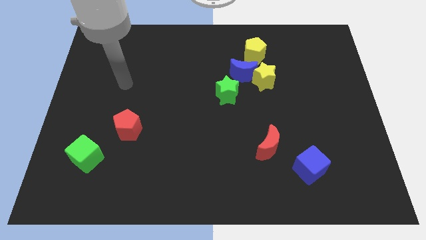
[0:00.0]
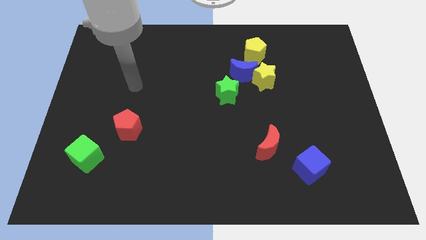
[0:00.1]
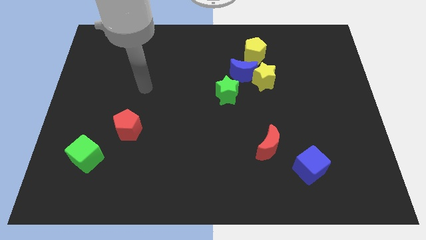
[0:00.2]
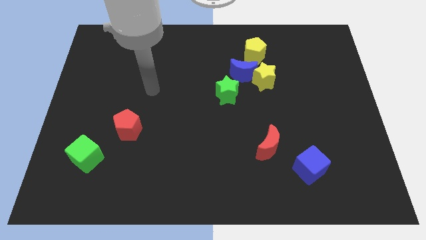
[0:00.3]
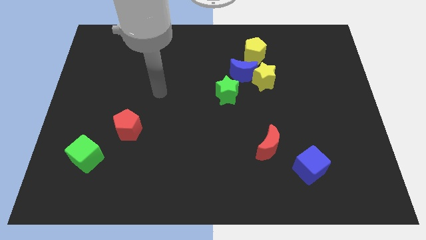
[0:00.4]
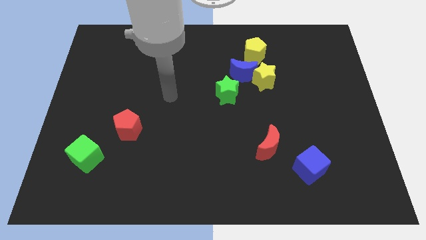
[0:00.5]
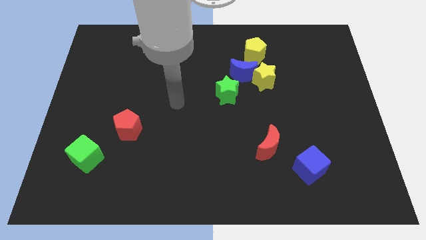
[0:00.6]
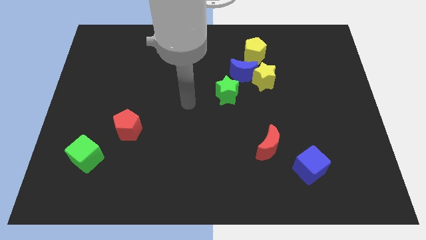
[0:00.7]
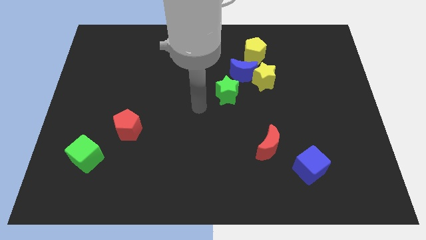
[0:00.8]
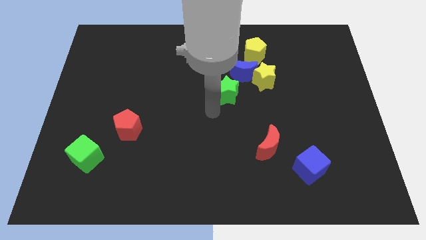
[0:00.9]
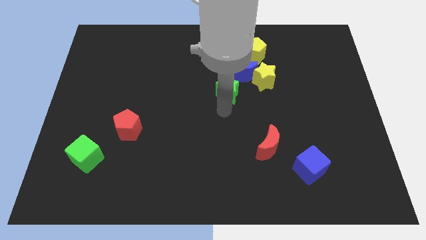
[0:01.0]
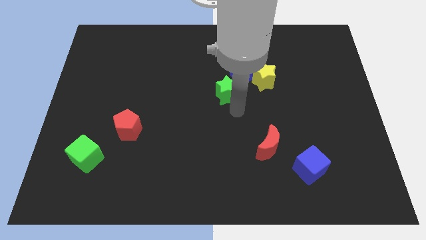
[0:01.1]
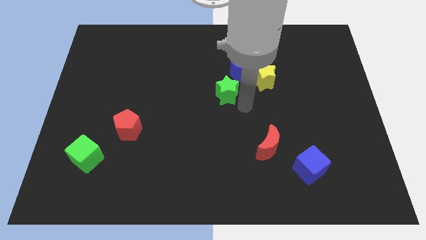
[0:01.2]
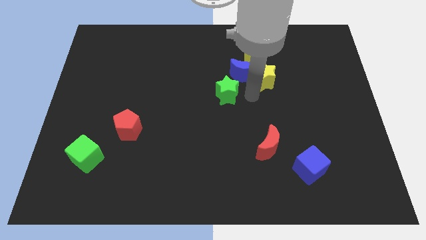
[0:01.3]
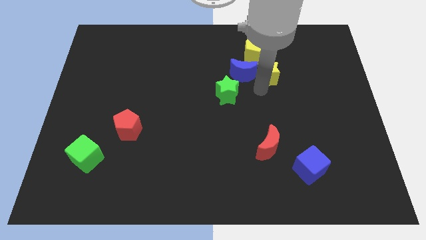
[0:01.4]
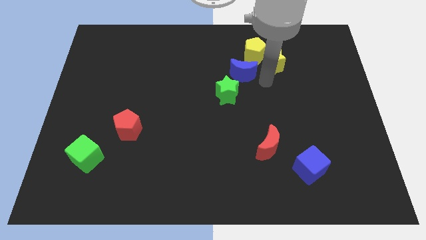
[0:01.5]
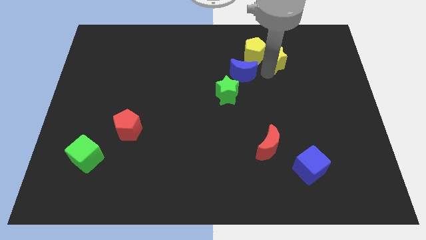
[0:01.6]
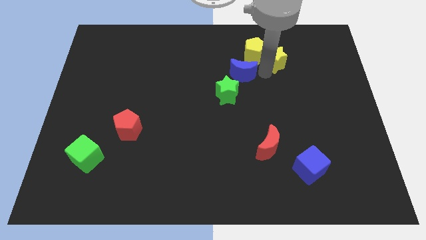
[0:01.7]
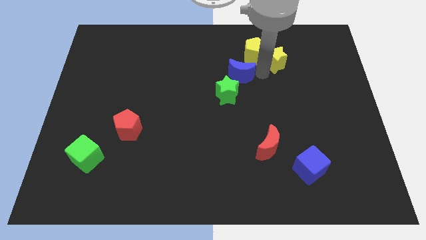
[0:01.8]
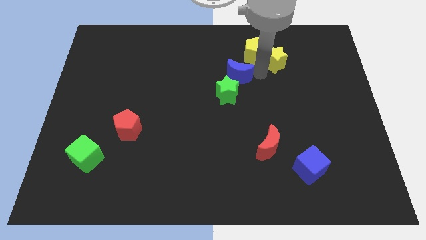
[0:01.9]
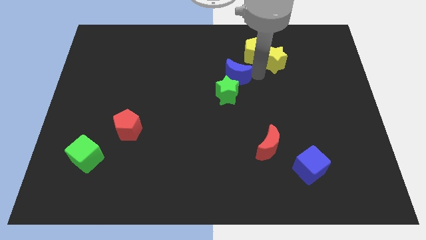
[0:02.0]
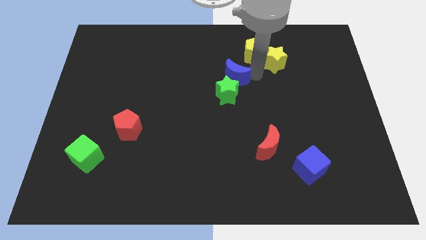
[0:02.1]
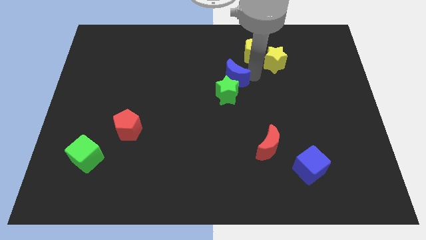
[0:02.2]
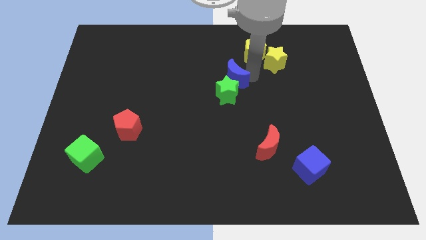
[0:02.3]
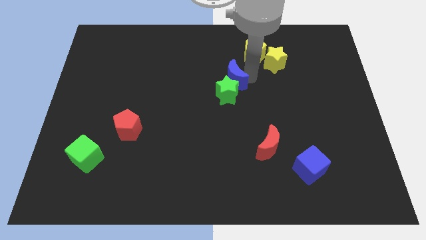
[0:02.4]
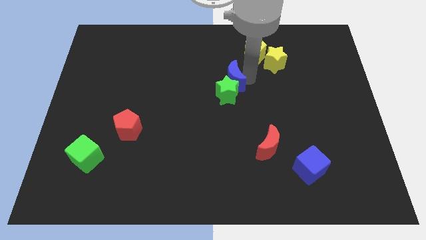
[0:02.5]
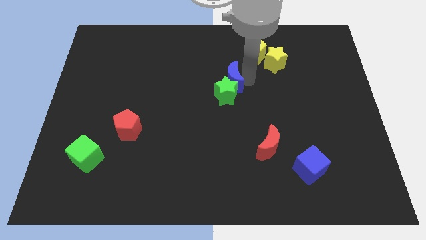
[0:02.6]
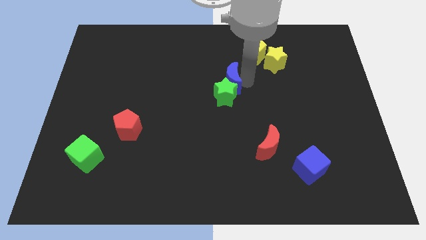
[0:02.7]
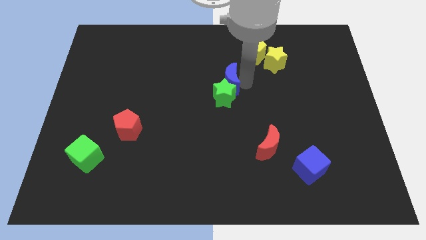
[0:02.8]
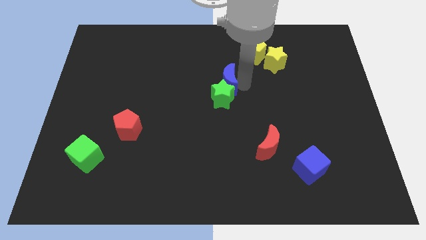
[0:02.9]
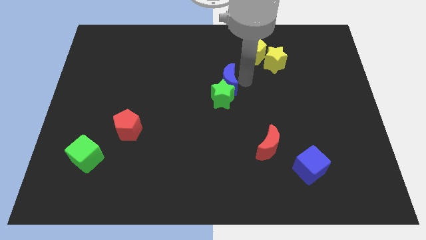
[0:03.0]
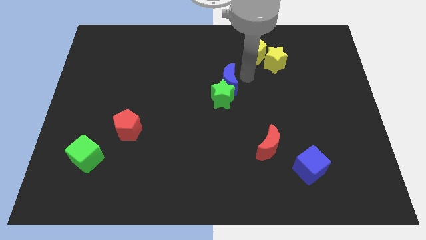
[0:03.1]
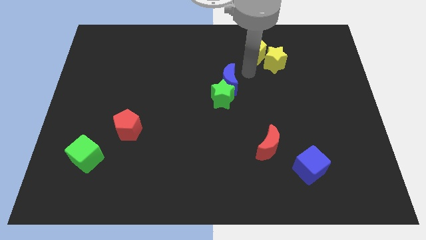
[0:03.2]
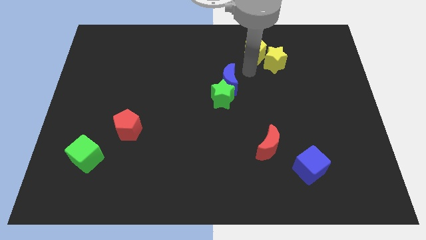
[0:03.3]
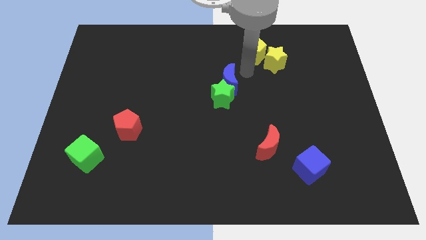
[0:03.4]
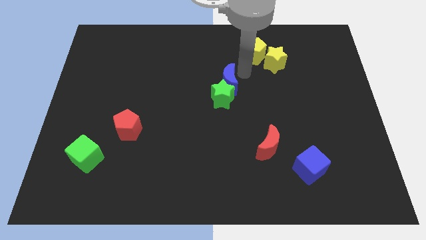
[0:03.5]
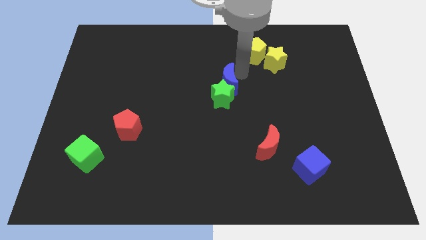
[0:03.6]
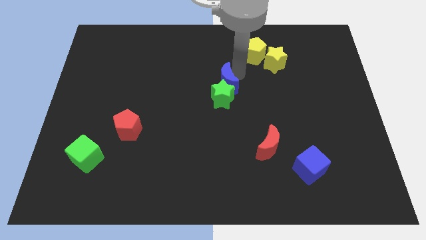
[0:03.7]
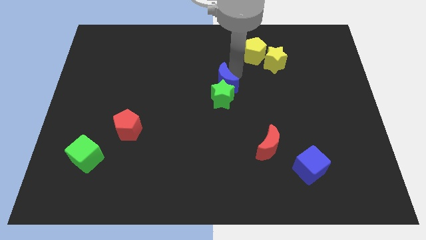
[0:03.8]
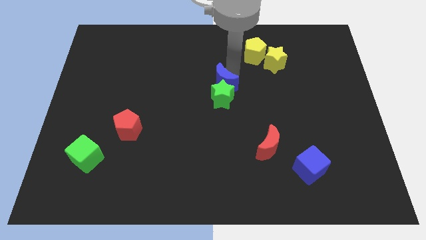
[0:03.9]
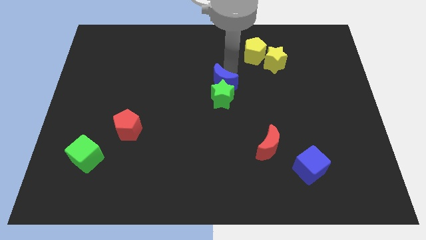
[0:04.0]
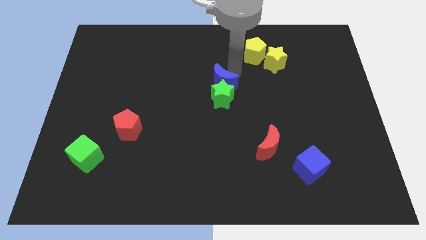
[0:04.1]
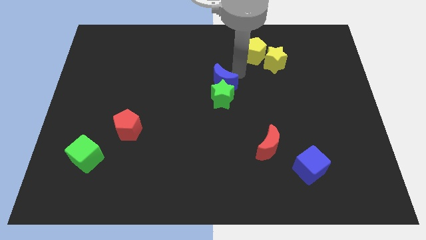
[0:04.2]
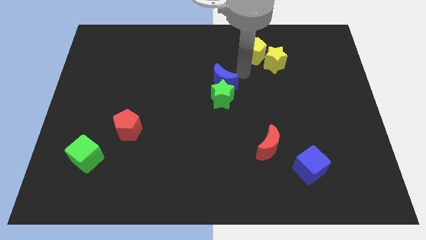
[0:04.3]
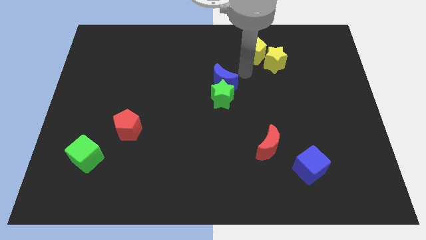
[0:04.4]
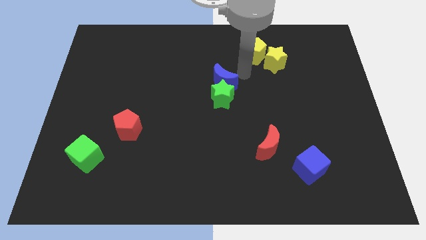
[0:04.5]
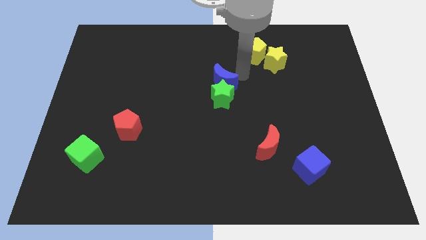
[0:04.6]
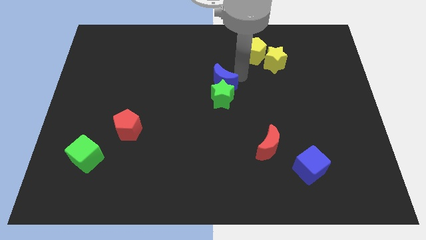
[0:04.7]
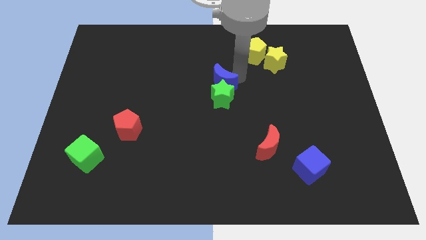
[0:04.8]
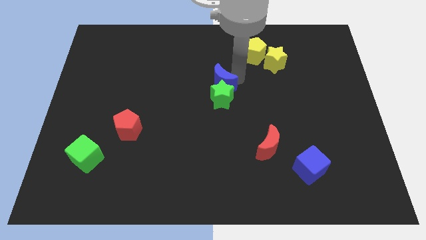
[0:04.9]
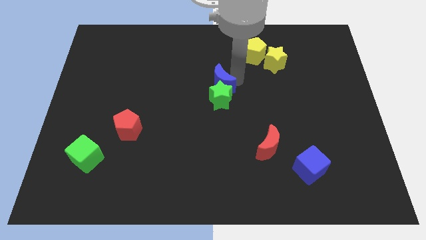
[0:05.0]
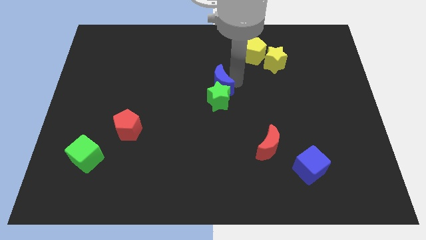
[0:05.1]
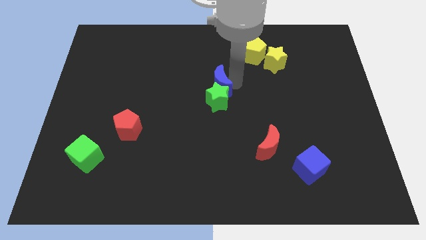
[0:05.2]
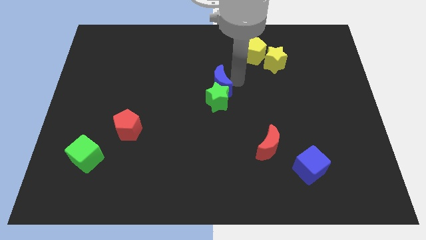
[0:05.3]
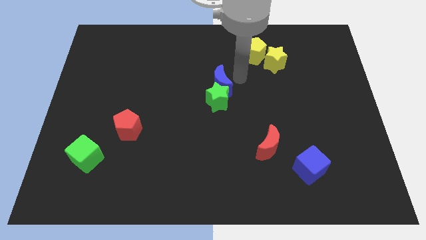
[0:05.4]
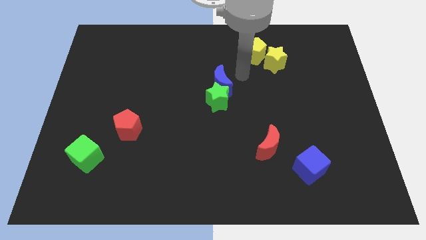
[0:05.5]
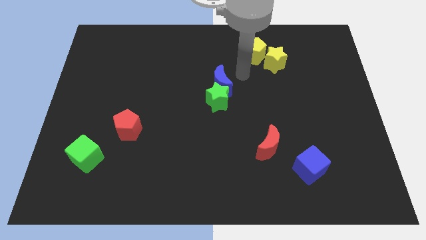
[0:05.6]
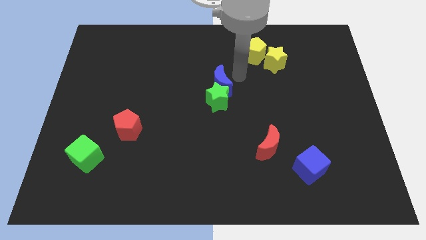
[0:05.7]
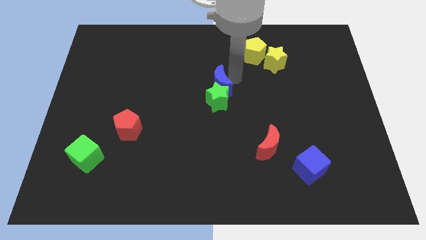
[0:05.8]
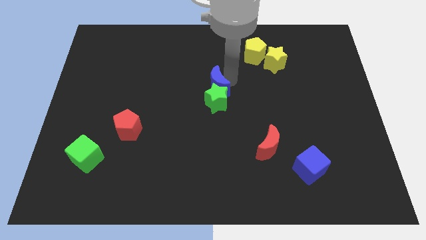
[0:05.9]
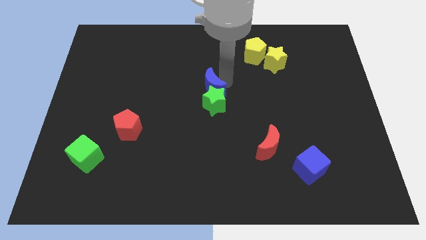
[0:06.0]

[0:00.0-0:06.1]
separate the blue moon from the yellow star, green star, and yellow pentagon

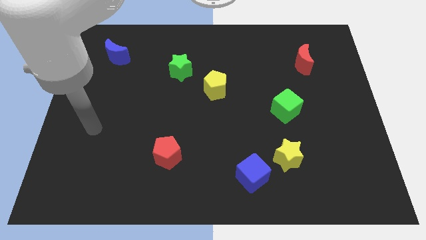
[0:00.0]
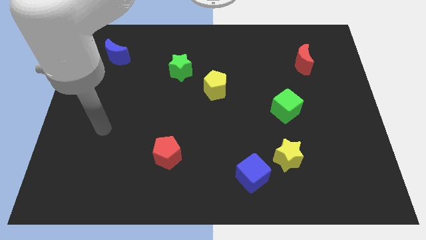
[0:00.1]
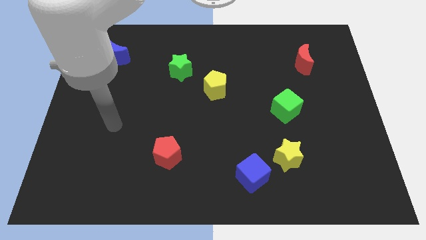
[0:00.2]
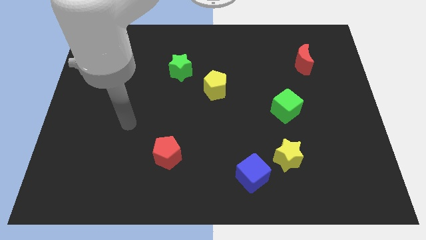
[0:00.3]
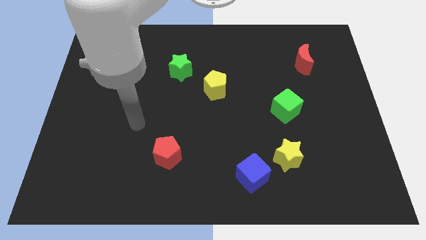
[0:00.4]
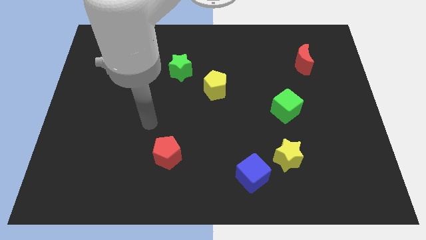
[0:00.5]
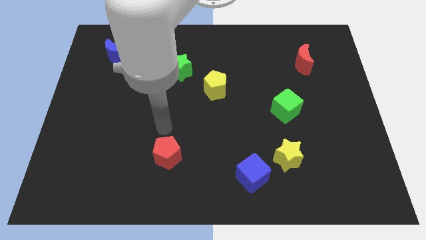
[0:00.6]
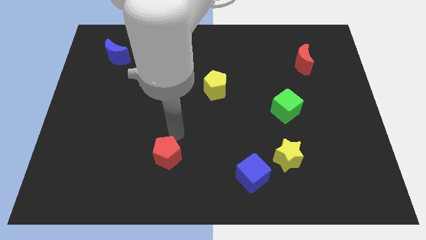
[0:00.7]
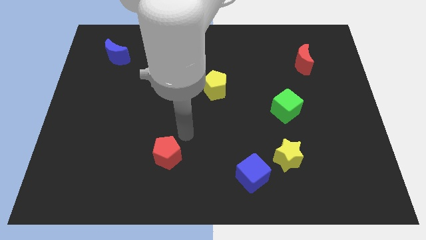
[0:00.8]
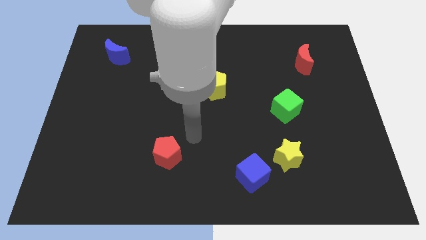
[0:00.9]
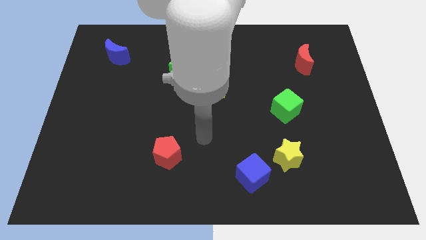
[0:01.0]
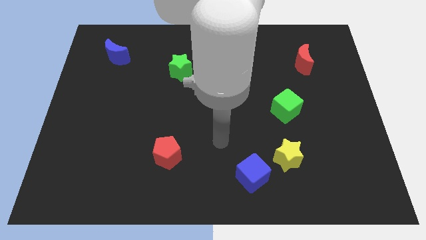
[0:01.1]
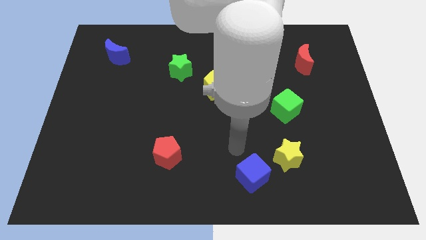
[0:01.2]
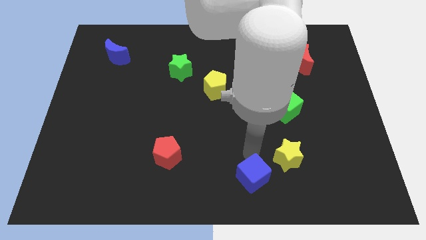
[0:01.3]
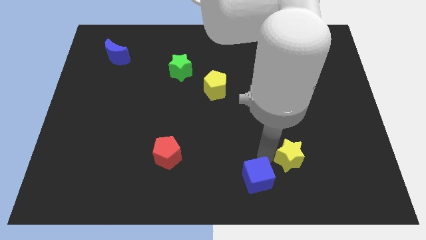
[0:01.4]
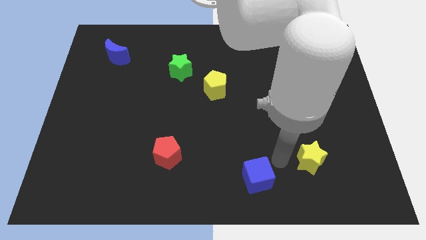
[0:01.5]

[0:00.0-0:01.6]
move the blue cube away from the yellow star

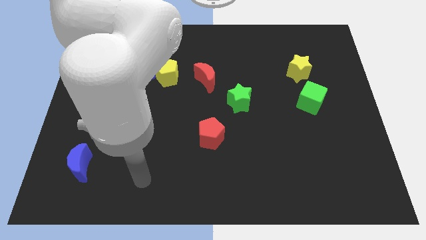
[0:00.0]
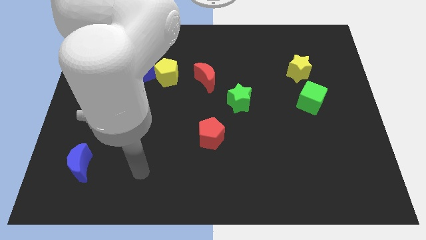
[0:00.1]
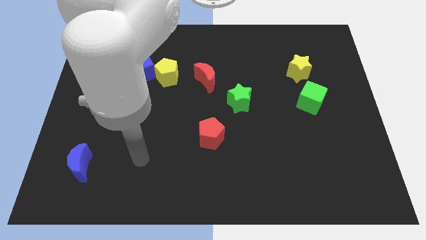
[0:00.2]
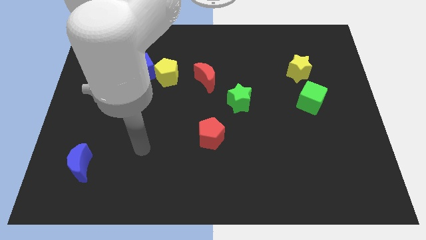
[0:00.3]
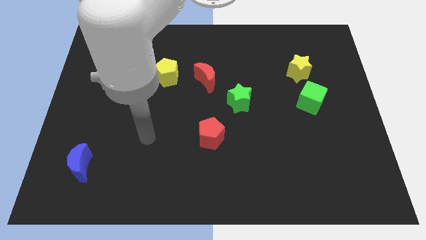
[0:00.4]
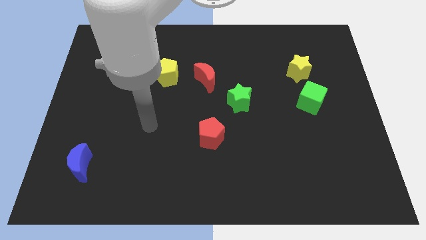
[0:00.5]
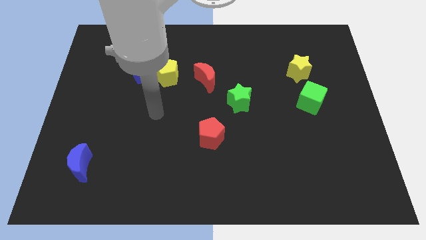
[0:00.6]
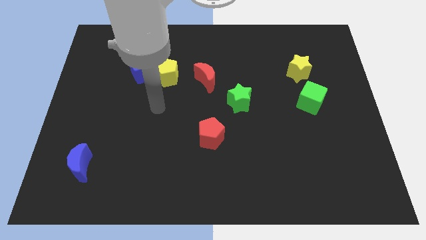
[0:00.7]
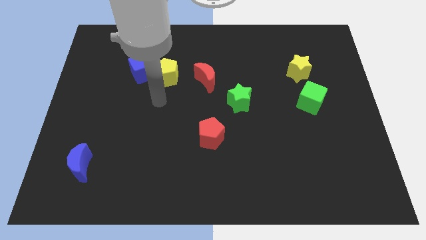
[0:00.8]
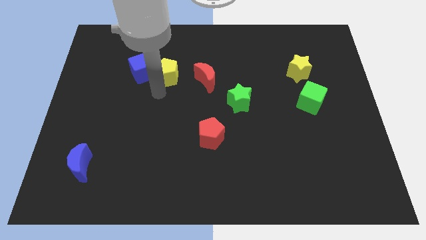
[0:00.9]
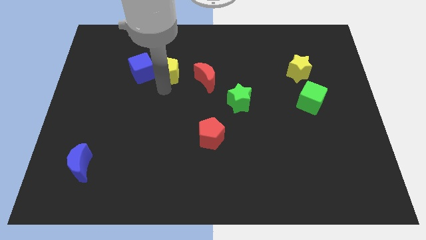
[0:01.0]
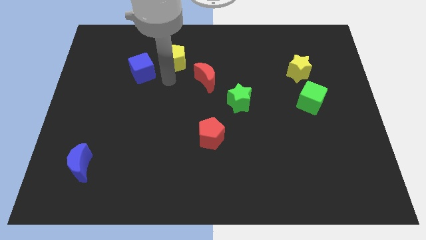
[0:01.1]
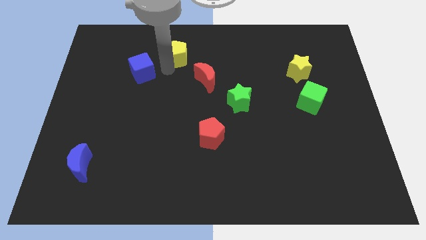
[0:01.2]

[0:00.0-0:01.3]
move the blue cube away from the yellow pentagon

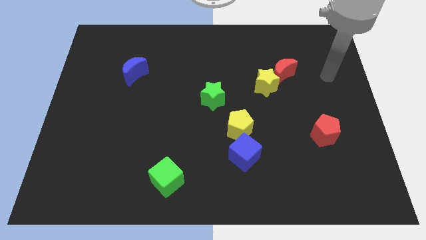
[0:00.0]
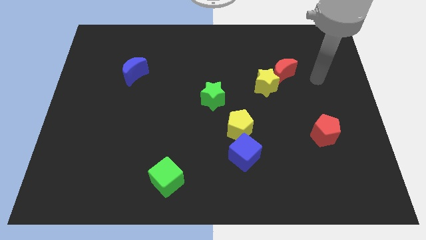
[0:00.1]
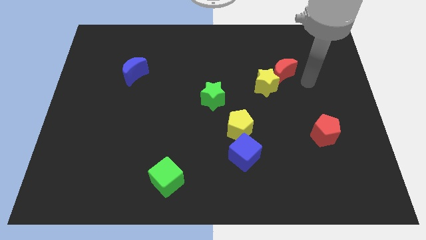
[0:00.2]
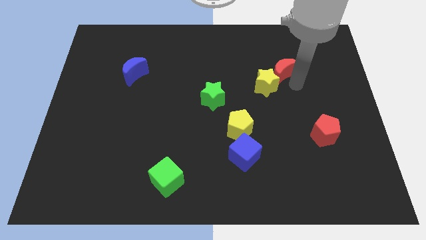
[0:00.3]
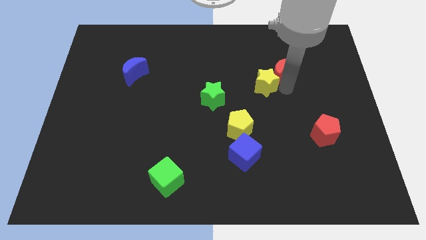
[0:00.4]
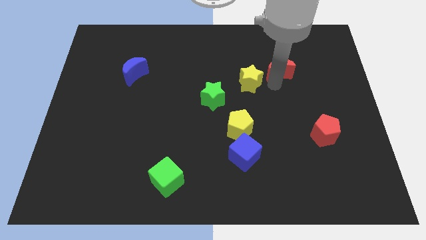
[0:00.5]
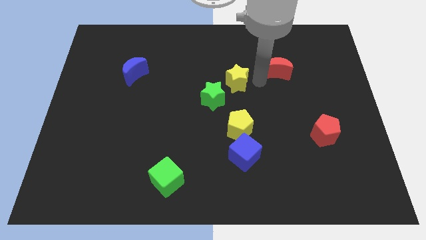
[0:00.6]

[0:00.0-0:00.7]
move the red moon away from the yellow star
